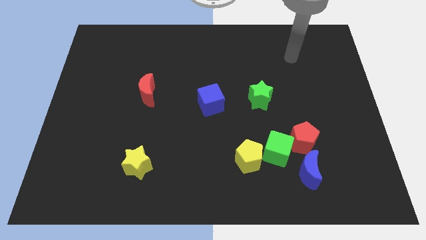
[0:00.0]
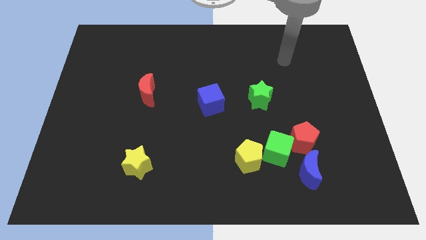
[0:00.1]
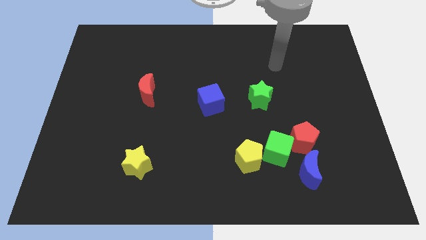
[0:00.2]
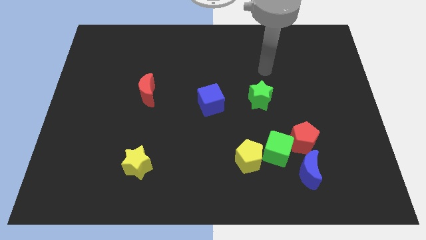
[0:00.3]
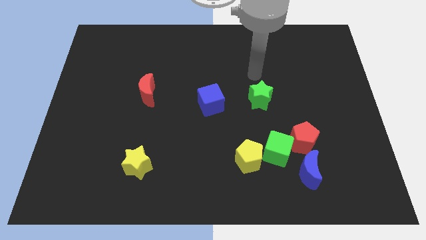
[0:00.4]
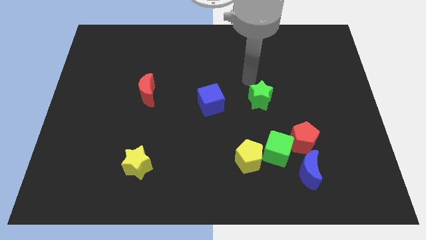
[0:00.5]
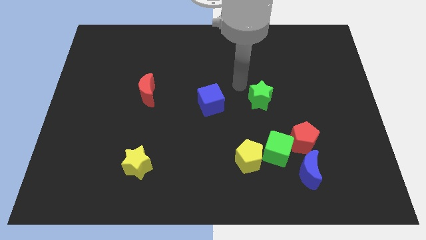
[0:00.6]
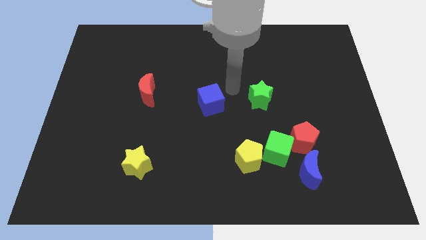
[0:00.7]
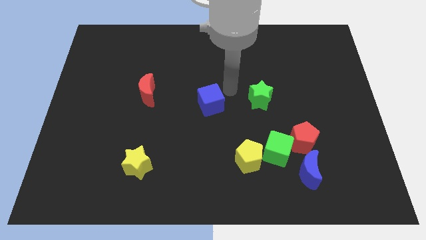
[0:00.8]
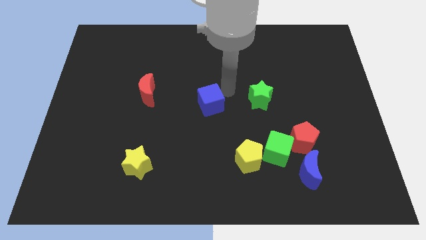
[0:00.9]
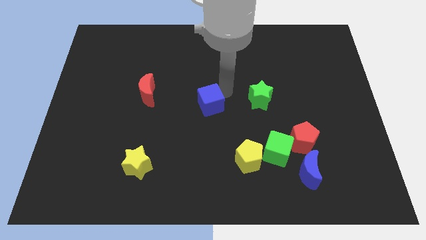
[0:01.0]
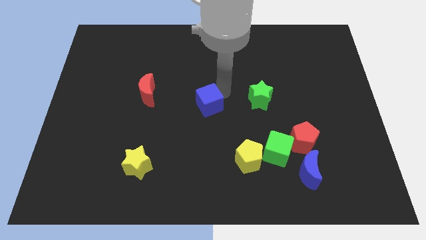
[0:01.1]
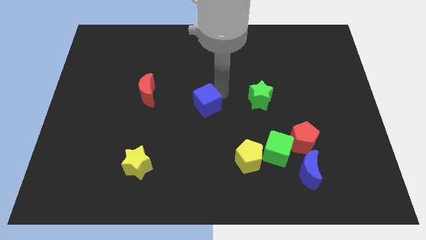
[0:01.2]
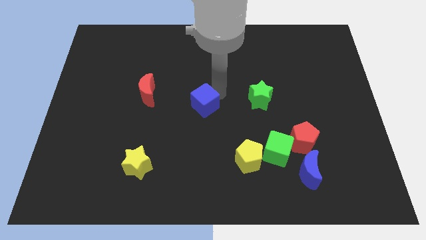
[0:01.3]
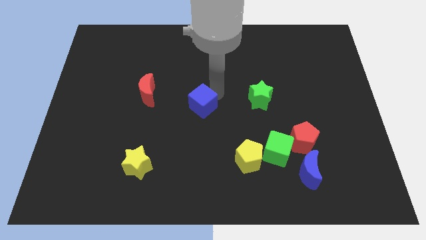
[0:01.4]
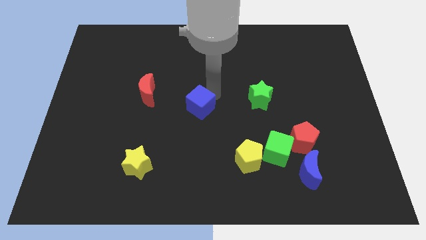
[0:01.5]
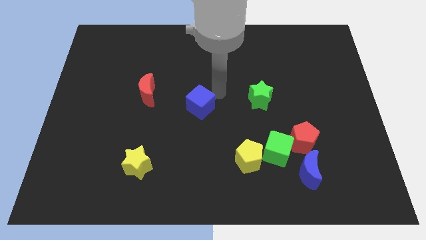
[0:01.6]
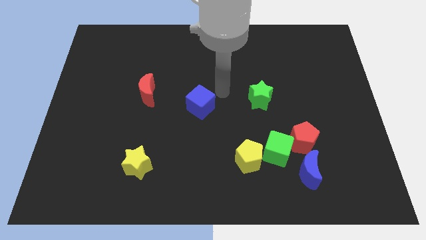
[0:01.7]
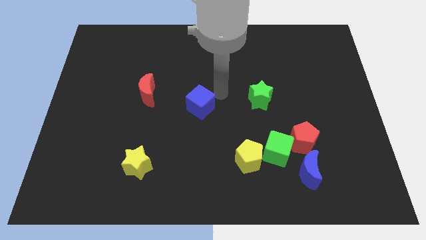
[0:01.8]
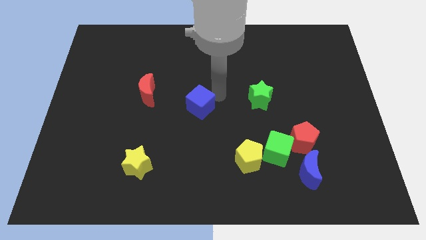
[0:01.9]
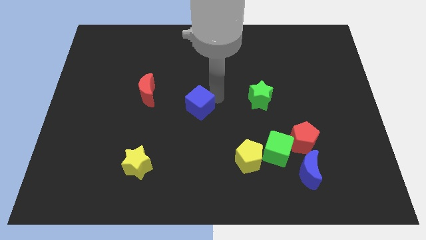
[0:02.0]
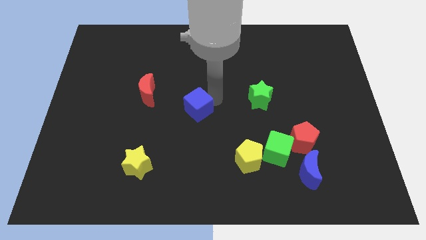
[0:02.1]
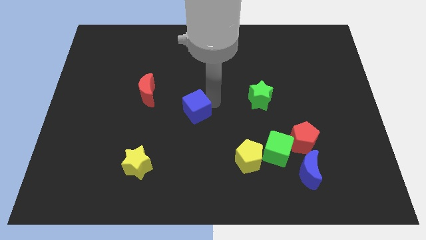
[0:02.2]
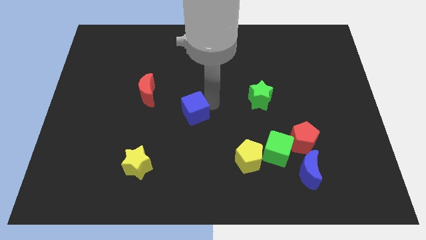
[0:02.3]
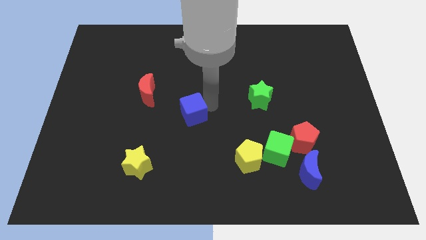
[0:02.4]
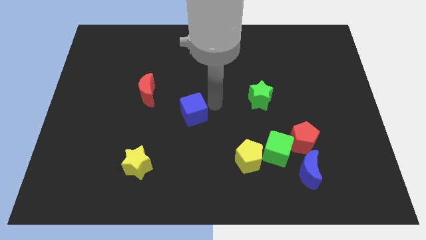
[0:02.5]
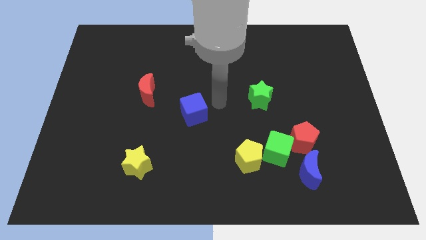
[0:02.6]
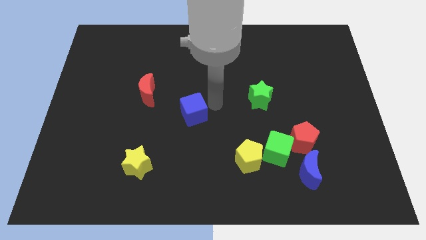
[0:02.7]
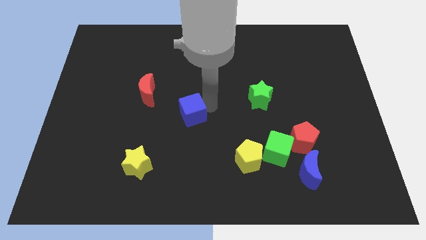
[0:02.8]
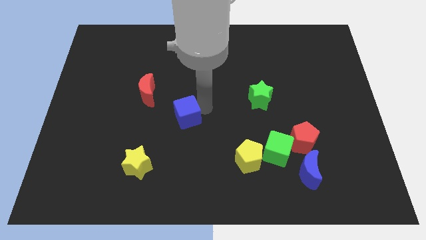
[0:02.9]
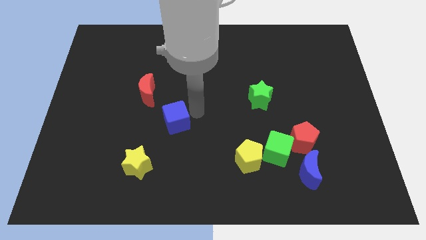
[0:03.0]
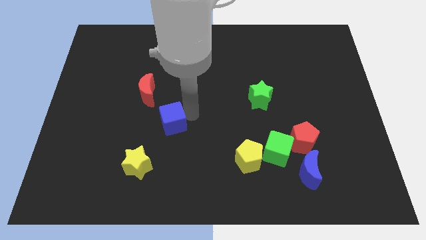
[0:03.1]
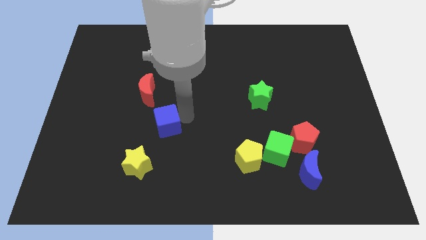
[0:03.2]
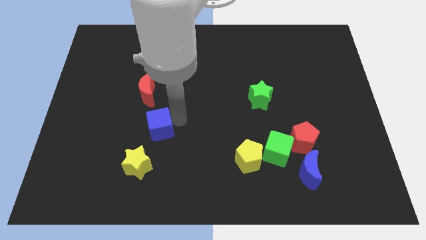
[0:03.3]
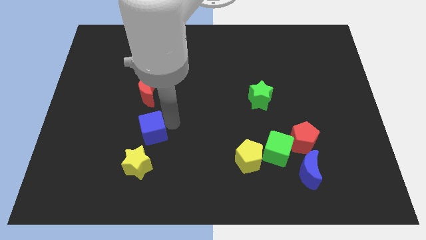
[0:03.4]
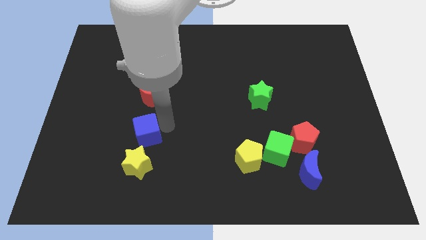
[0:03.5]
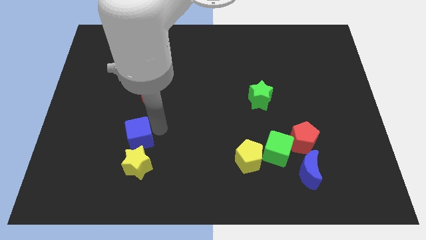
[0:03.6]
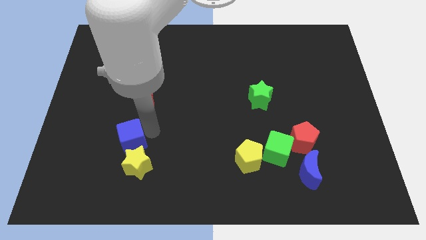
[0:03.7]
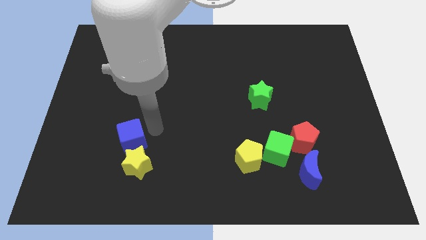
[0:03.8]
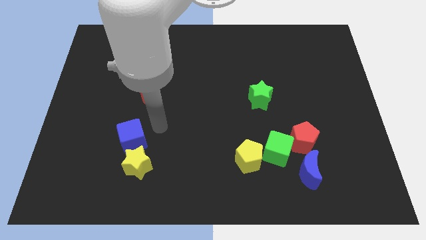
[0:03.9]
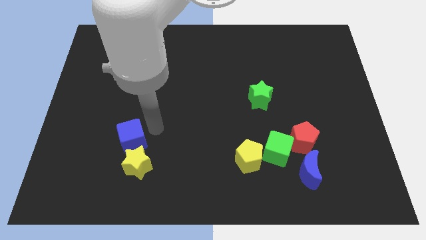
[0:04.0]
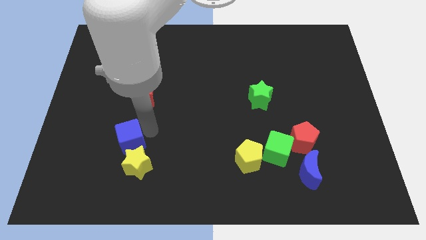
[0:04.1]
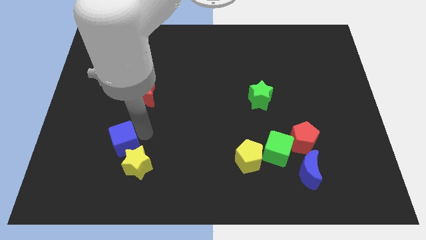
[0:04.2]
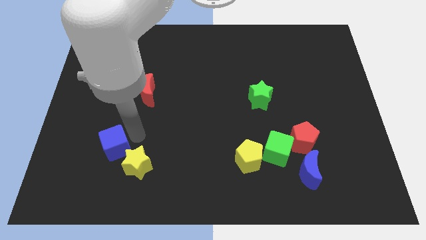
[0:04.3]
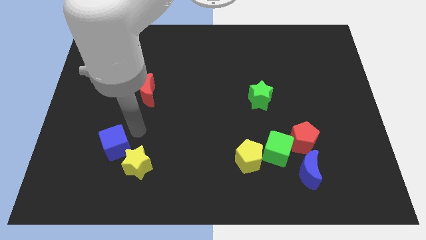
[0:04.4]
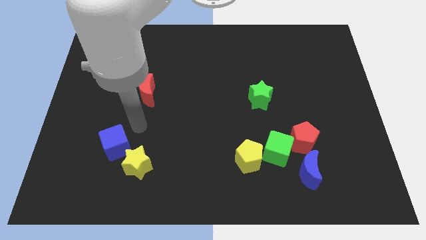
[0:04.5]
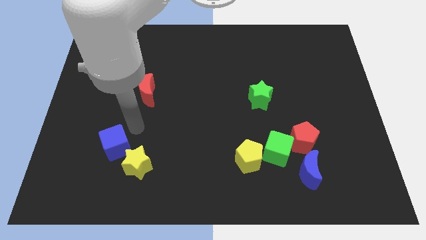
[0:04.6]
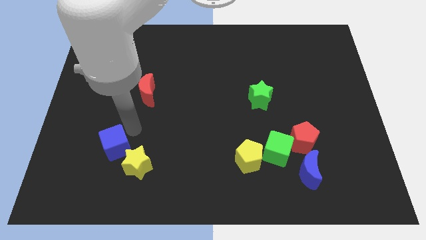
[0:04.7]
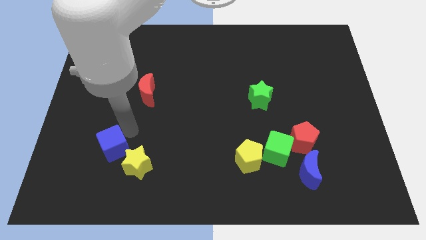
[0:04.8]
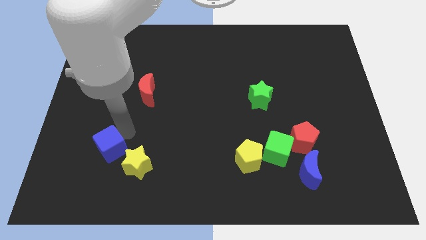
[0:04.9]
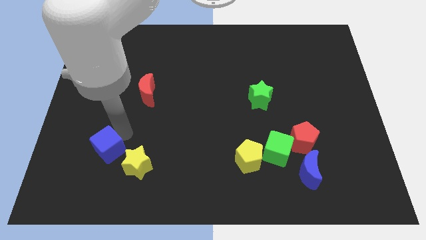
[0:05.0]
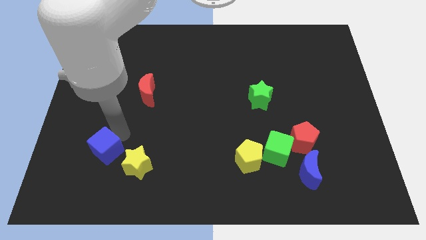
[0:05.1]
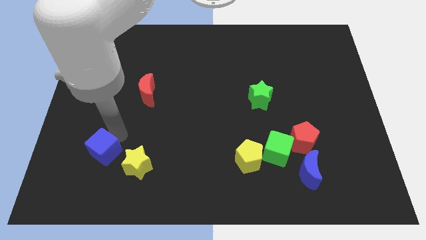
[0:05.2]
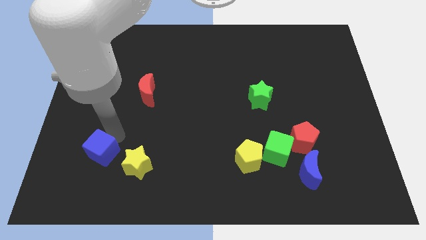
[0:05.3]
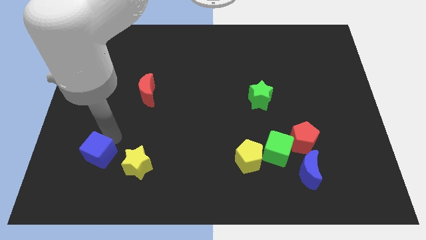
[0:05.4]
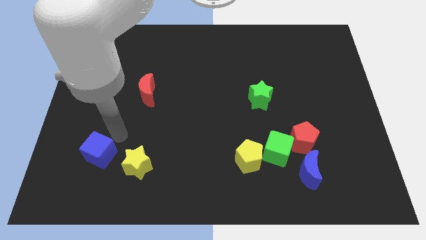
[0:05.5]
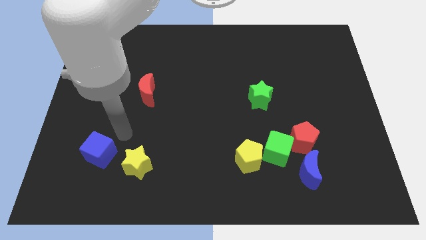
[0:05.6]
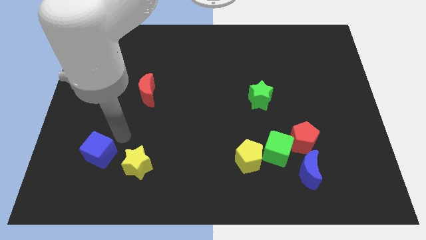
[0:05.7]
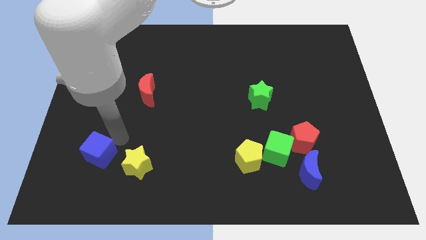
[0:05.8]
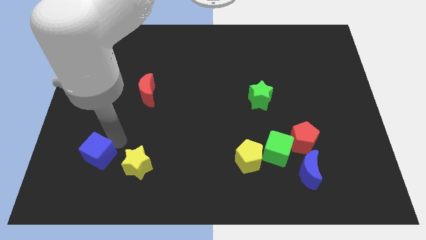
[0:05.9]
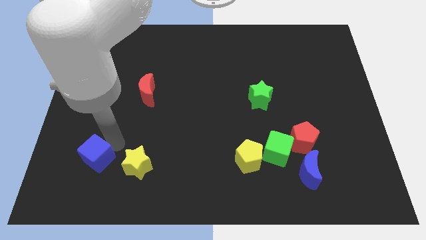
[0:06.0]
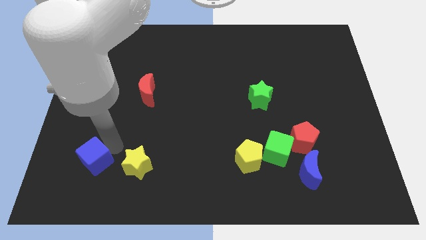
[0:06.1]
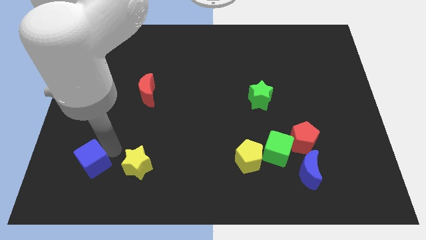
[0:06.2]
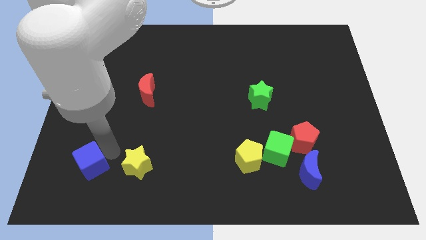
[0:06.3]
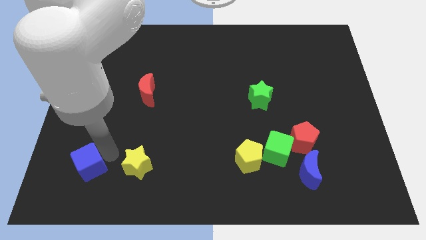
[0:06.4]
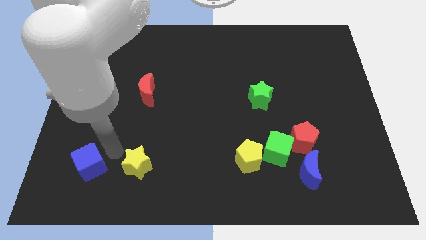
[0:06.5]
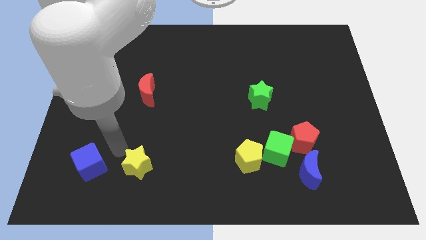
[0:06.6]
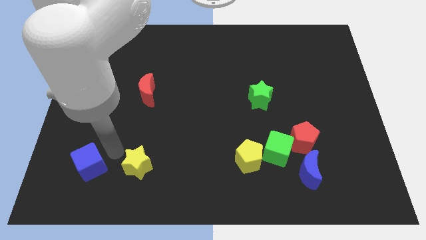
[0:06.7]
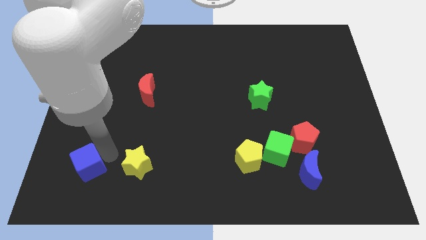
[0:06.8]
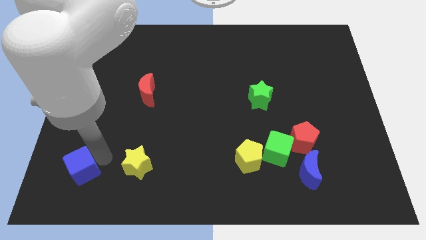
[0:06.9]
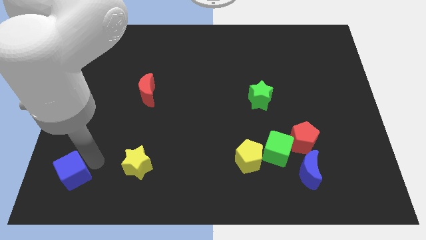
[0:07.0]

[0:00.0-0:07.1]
put the blue cube to the bottom left corner
